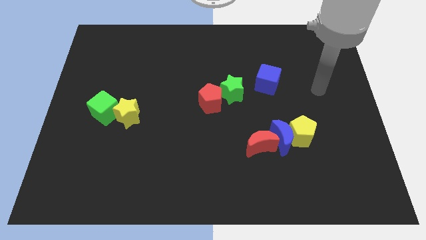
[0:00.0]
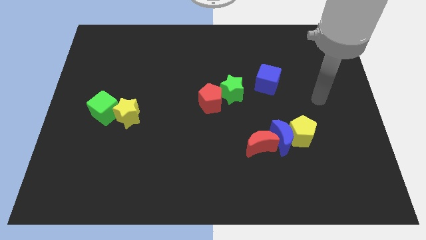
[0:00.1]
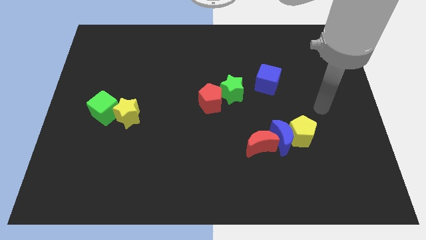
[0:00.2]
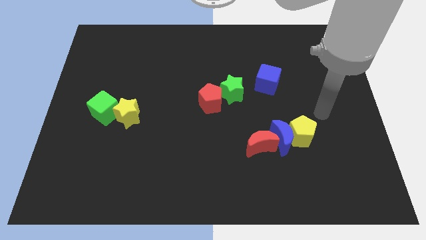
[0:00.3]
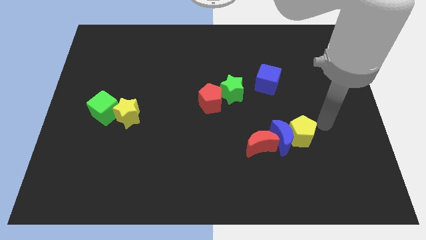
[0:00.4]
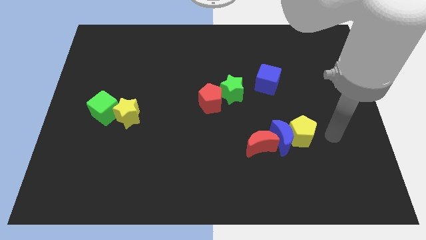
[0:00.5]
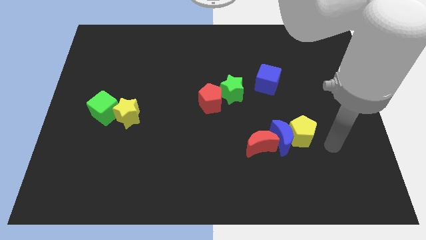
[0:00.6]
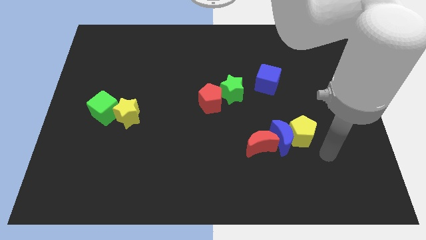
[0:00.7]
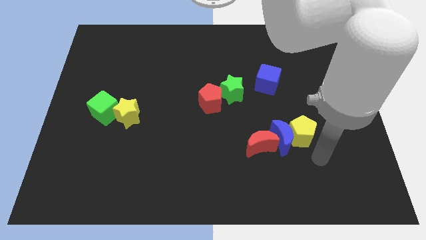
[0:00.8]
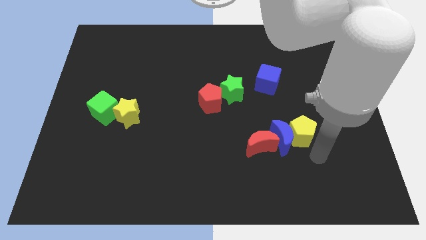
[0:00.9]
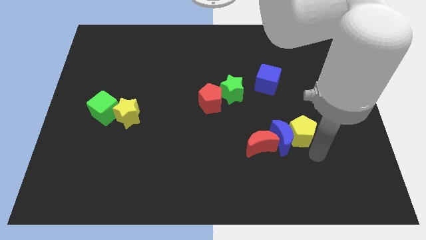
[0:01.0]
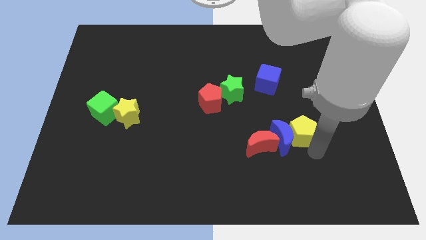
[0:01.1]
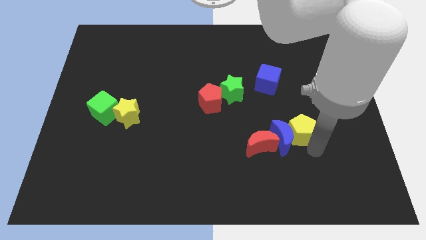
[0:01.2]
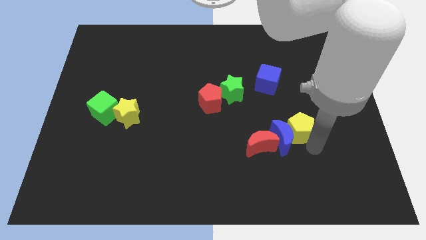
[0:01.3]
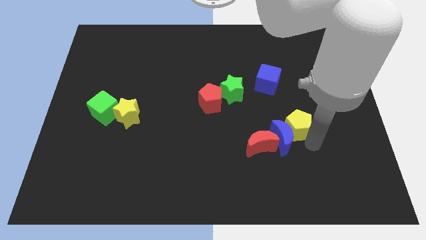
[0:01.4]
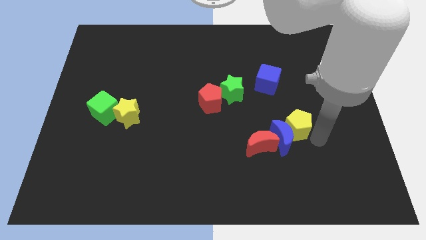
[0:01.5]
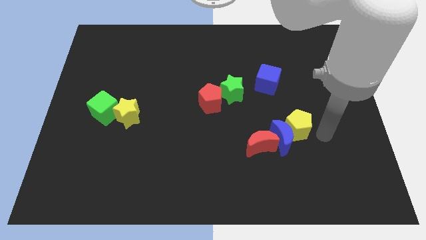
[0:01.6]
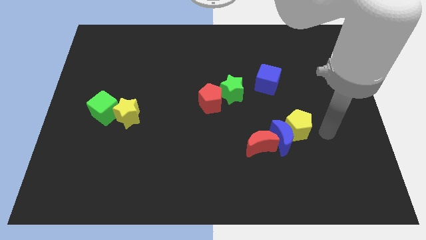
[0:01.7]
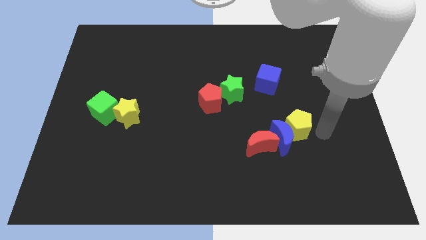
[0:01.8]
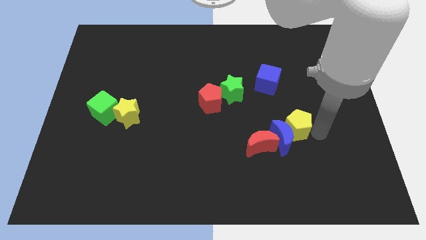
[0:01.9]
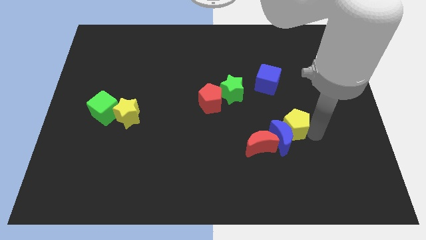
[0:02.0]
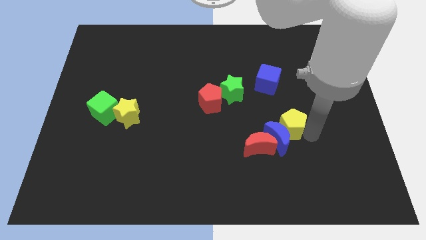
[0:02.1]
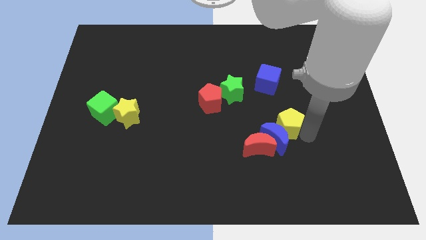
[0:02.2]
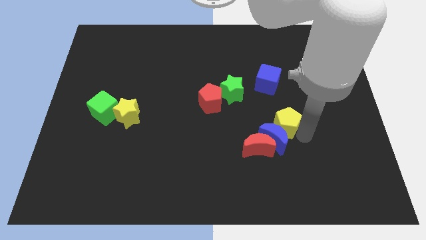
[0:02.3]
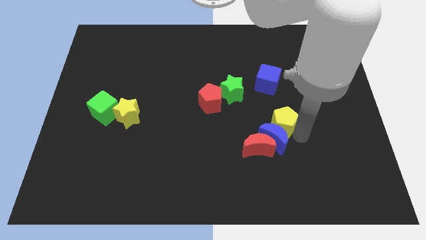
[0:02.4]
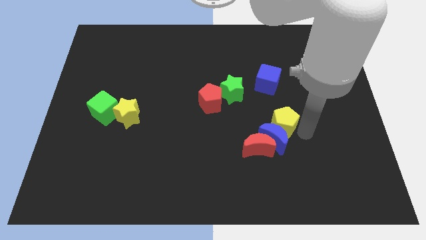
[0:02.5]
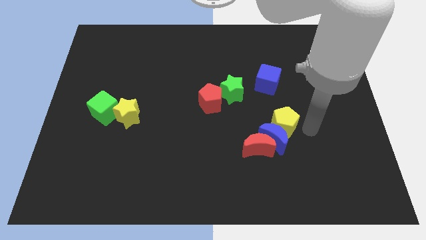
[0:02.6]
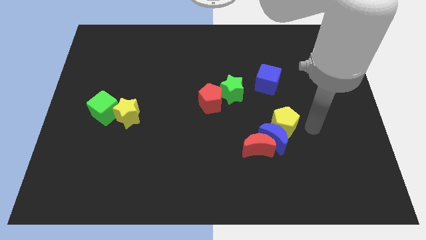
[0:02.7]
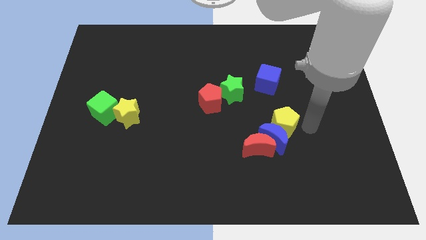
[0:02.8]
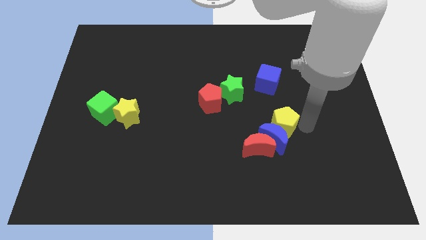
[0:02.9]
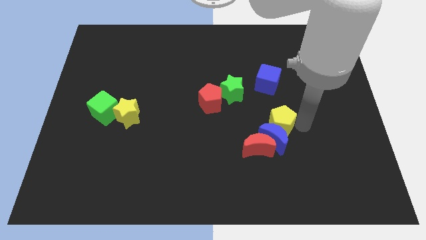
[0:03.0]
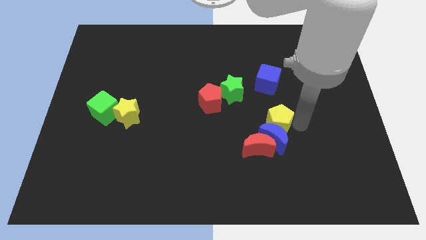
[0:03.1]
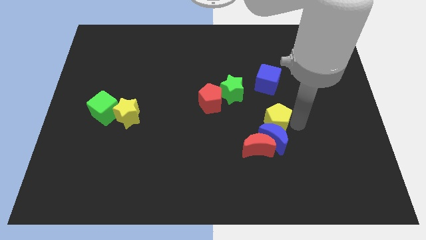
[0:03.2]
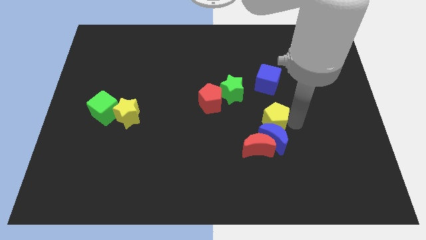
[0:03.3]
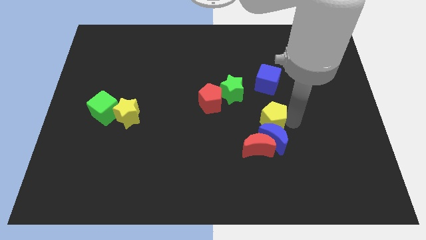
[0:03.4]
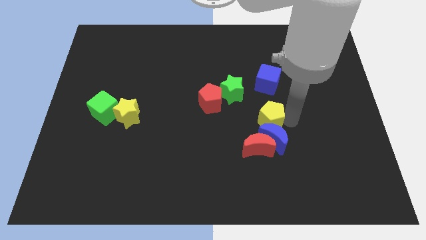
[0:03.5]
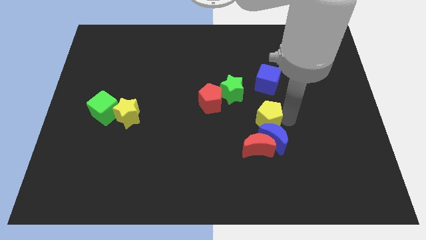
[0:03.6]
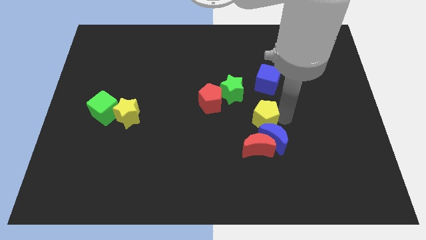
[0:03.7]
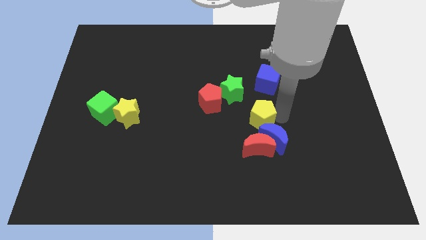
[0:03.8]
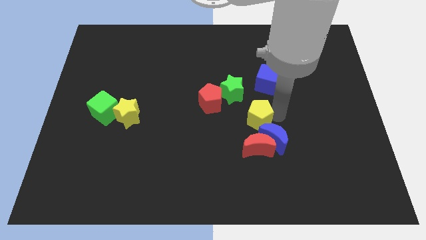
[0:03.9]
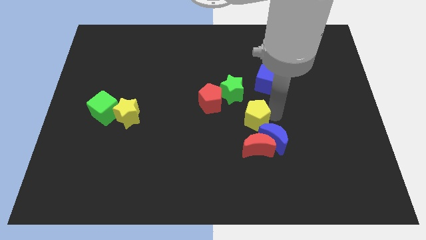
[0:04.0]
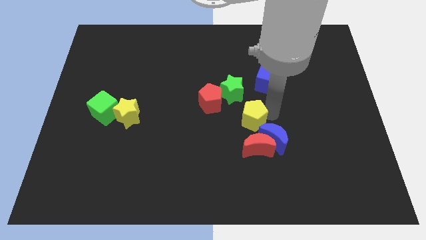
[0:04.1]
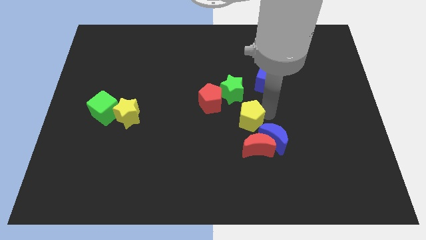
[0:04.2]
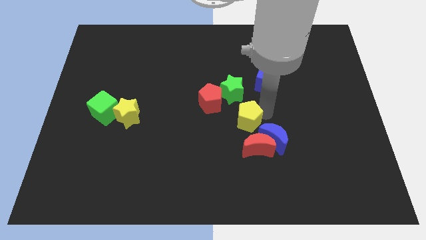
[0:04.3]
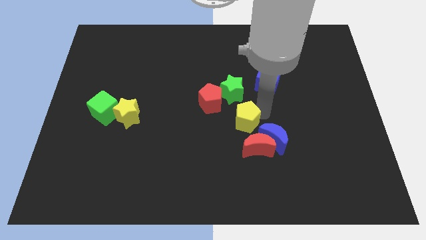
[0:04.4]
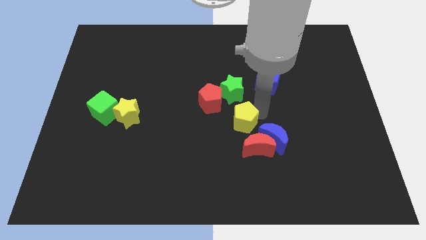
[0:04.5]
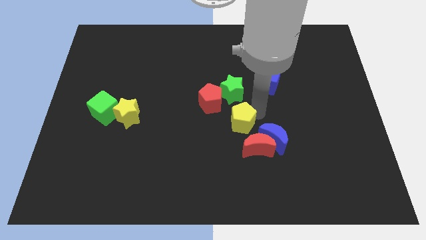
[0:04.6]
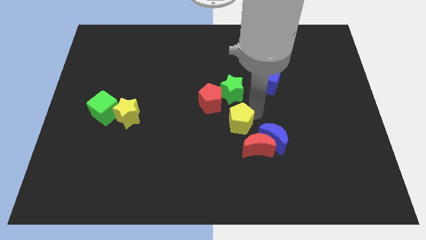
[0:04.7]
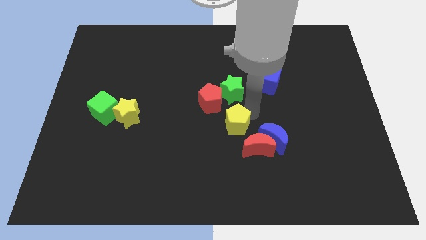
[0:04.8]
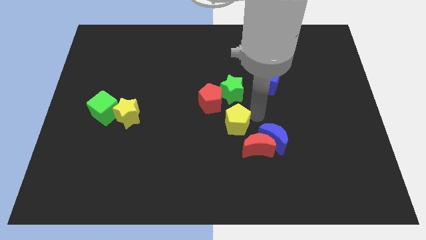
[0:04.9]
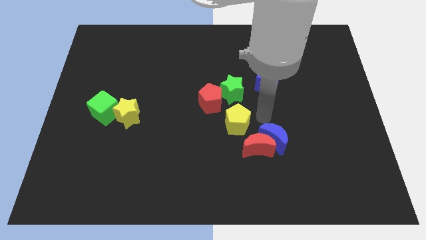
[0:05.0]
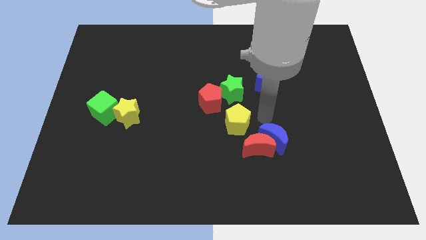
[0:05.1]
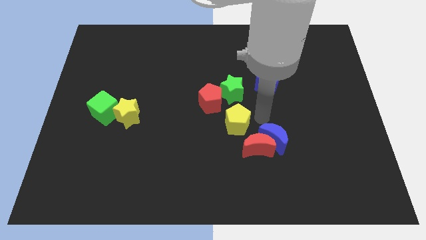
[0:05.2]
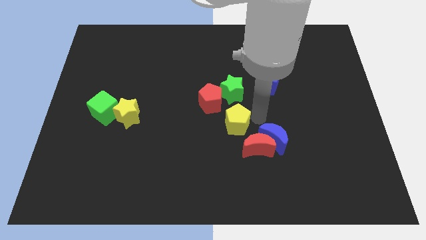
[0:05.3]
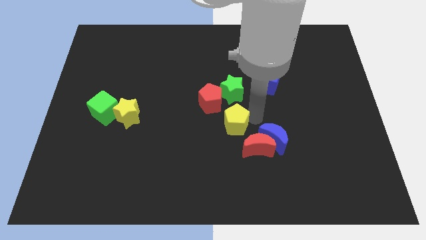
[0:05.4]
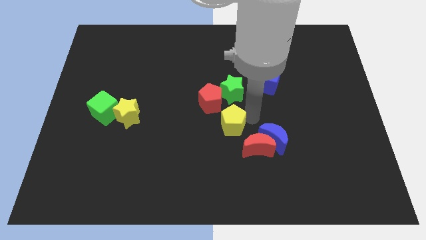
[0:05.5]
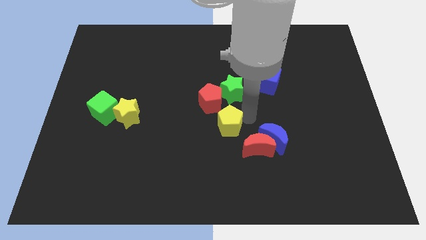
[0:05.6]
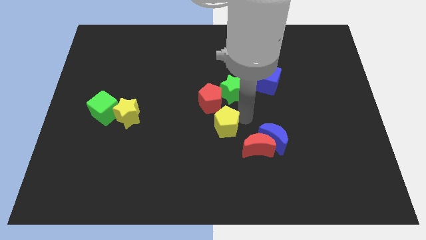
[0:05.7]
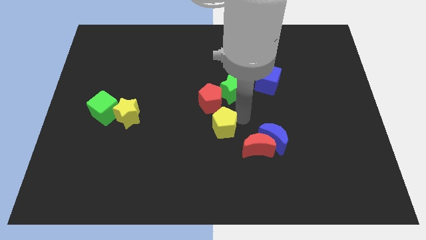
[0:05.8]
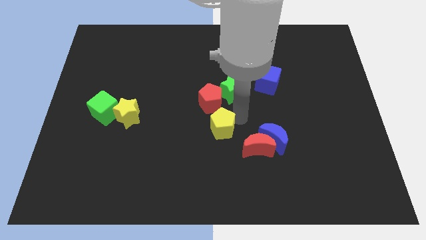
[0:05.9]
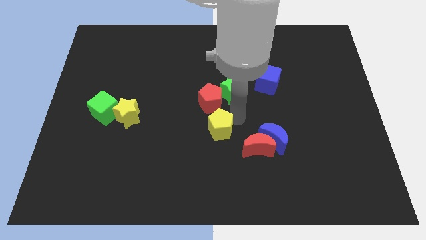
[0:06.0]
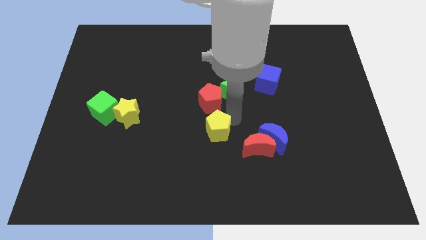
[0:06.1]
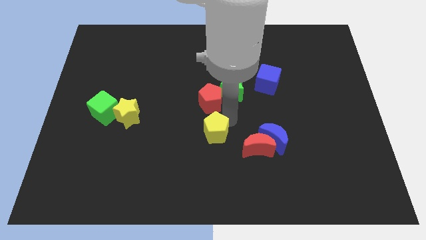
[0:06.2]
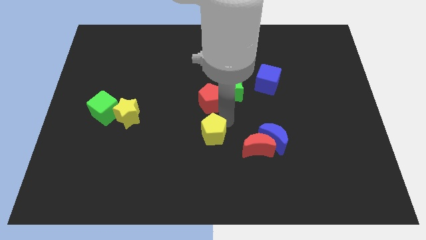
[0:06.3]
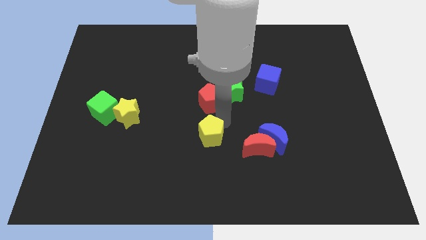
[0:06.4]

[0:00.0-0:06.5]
move the yellow pentagon to the left

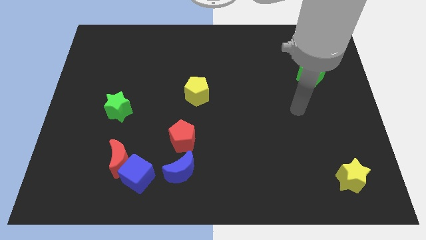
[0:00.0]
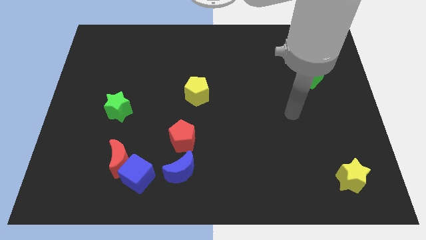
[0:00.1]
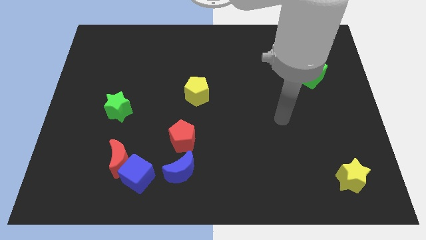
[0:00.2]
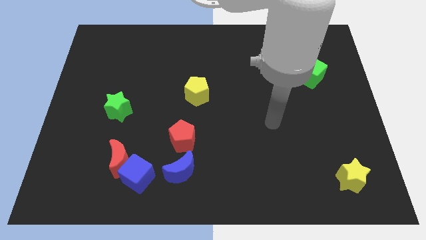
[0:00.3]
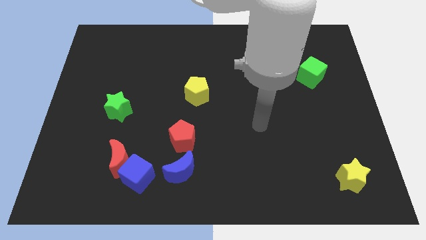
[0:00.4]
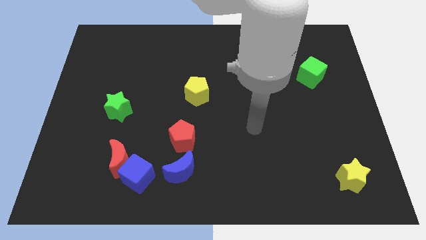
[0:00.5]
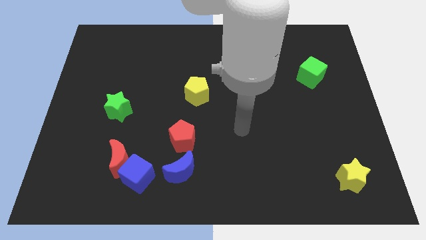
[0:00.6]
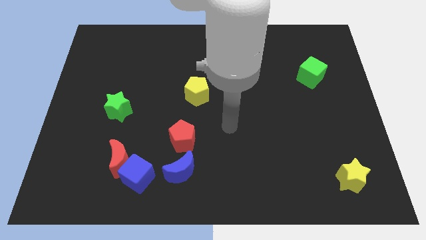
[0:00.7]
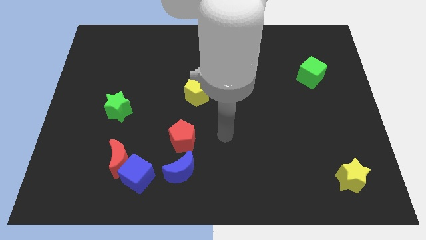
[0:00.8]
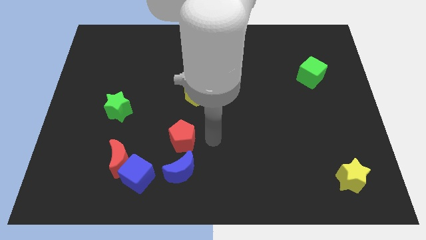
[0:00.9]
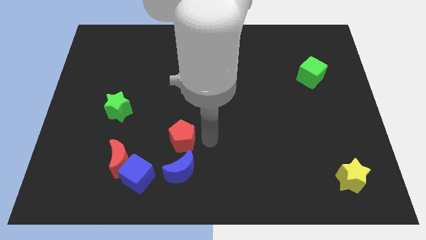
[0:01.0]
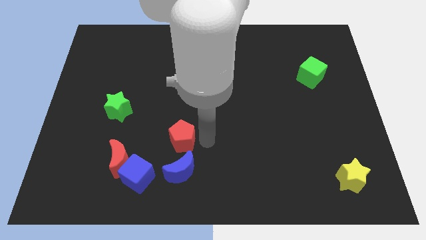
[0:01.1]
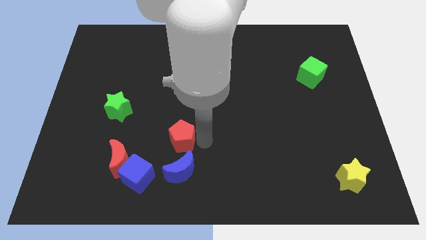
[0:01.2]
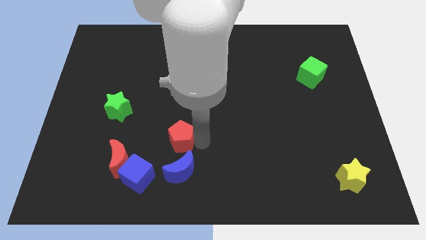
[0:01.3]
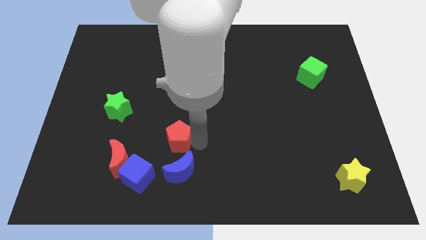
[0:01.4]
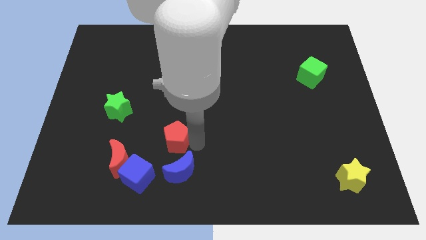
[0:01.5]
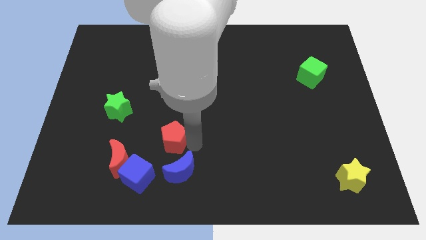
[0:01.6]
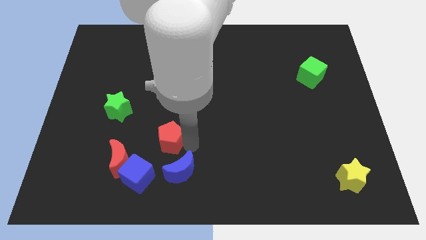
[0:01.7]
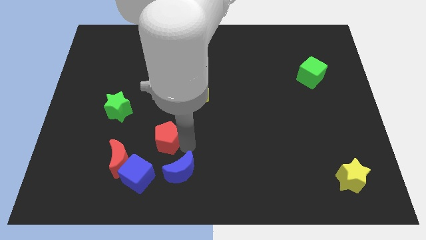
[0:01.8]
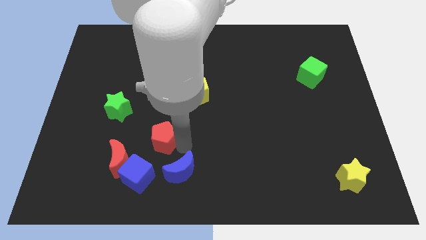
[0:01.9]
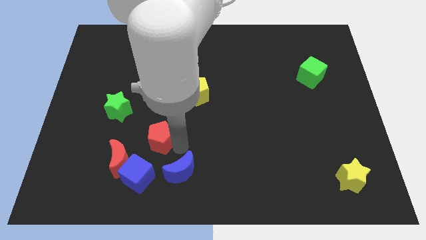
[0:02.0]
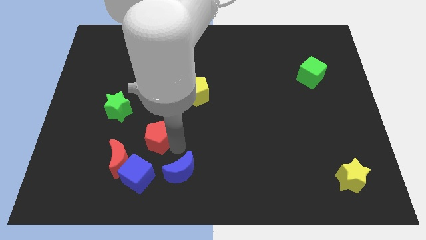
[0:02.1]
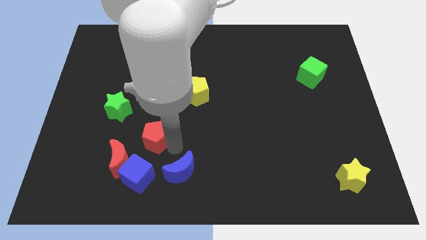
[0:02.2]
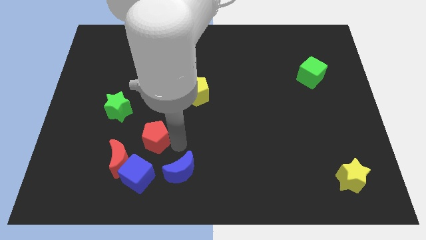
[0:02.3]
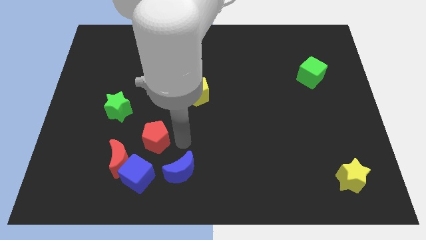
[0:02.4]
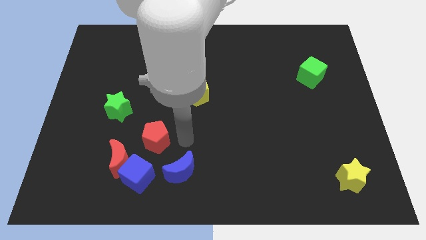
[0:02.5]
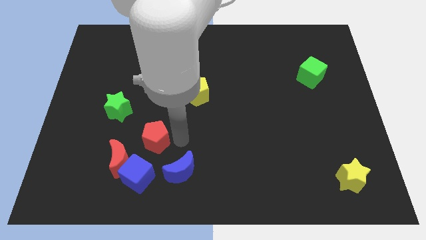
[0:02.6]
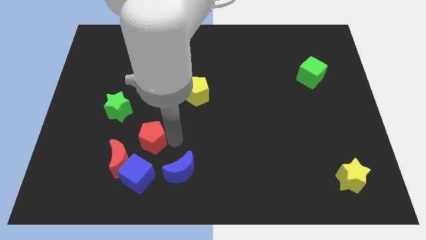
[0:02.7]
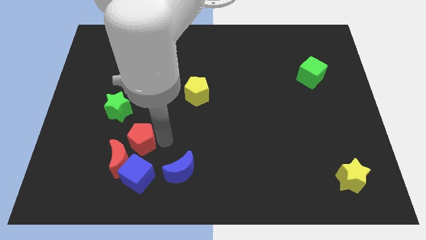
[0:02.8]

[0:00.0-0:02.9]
slightly push the red pentagon left
